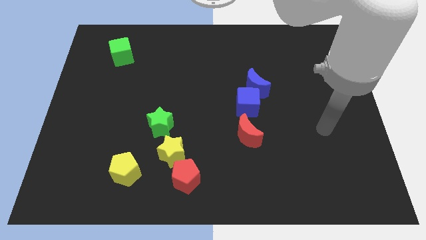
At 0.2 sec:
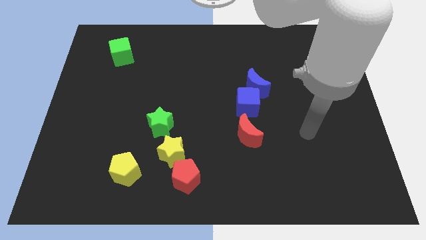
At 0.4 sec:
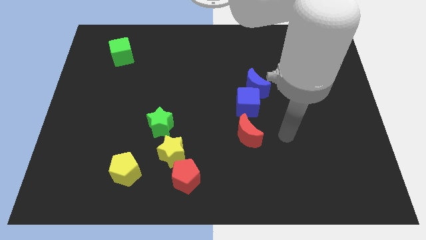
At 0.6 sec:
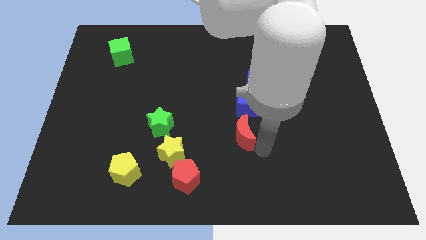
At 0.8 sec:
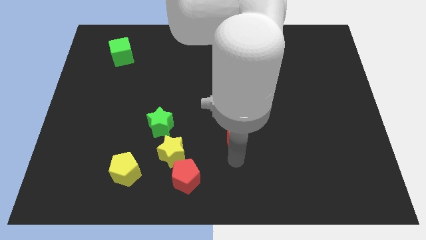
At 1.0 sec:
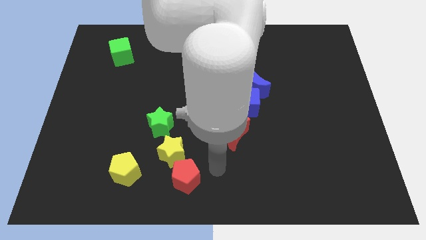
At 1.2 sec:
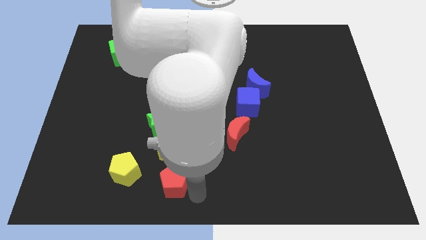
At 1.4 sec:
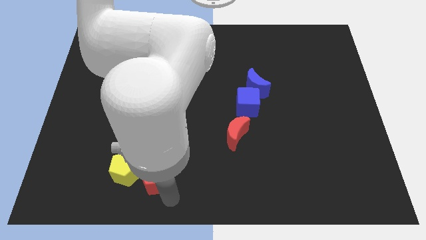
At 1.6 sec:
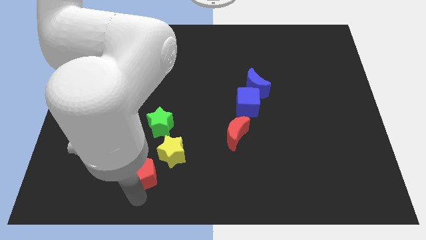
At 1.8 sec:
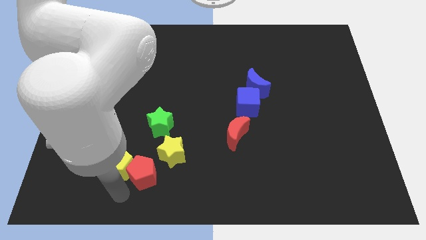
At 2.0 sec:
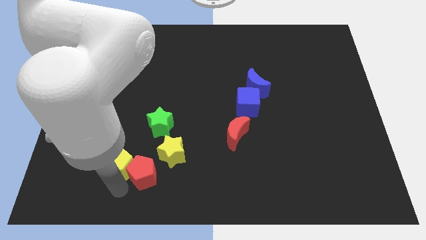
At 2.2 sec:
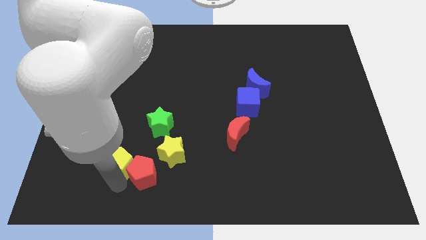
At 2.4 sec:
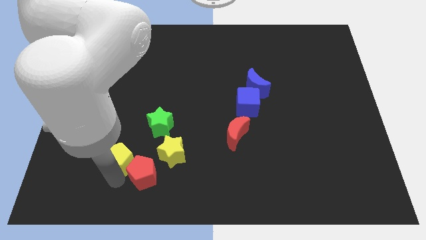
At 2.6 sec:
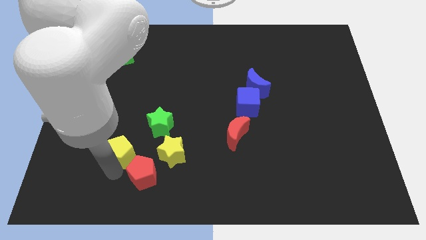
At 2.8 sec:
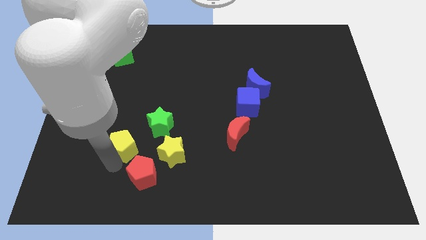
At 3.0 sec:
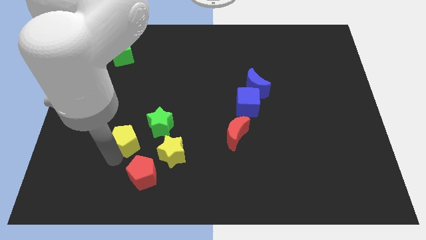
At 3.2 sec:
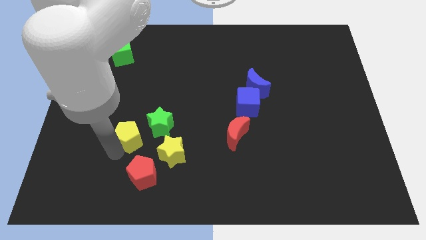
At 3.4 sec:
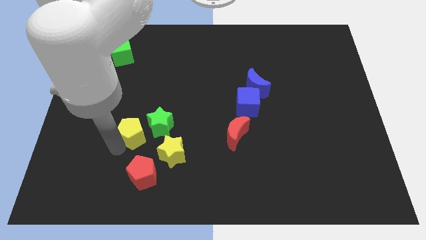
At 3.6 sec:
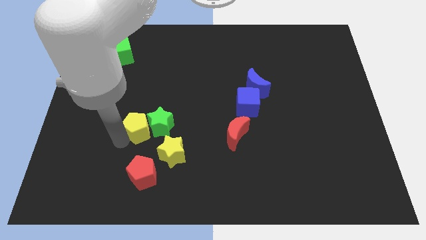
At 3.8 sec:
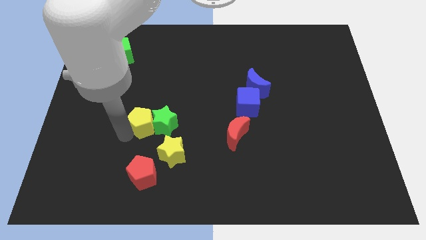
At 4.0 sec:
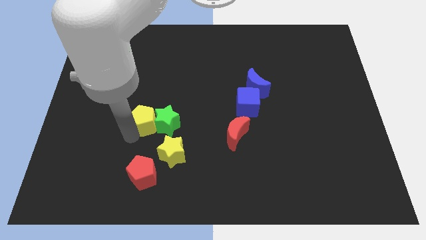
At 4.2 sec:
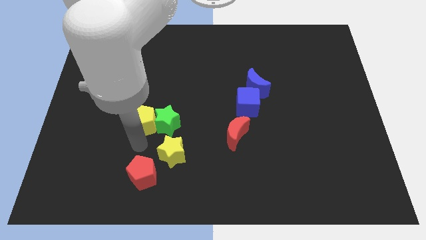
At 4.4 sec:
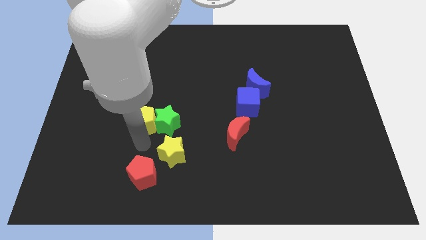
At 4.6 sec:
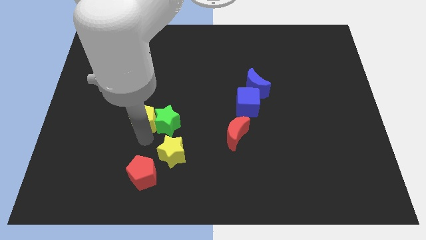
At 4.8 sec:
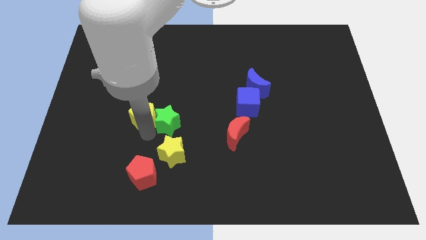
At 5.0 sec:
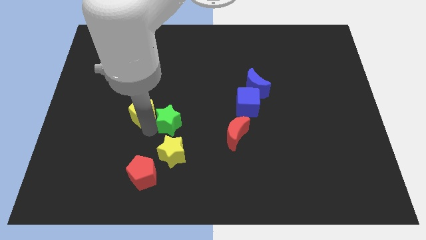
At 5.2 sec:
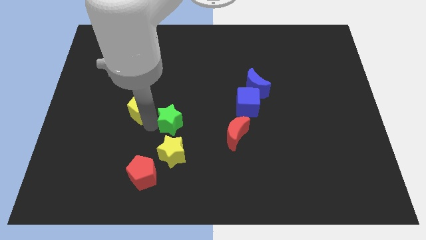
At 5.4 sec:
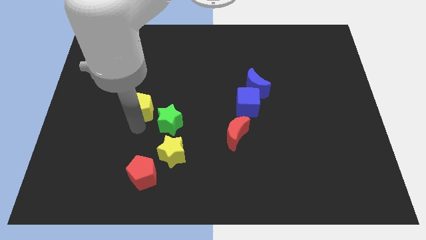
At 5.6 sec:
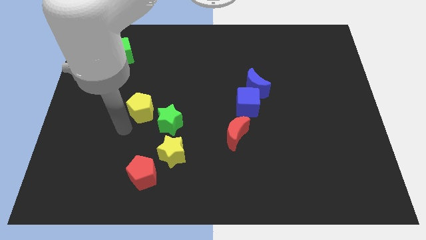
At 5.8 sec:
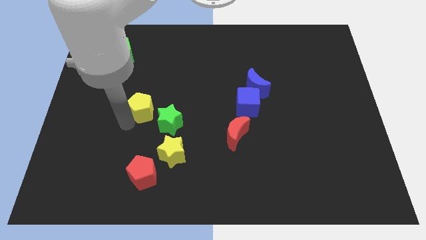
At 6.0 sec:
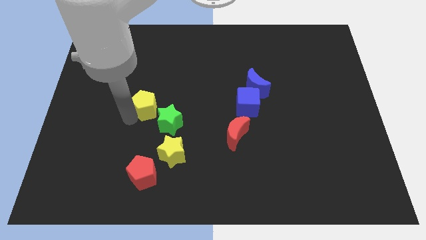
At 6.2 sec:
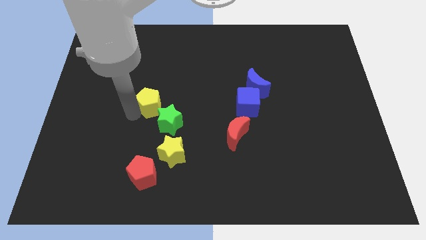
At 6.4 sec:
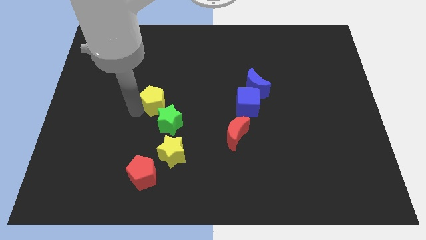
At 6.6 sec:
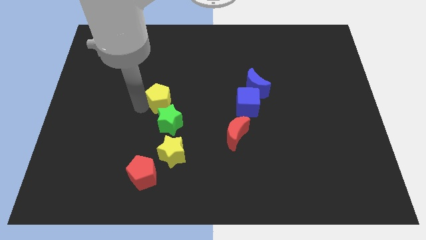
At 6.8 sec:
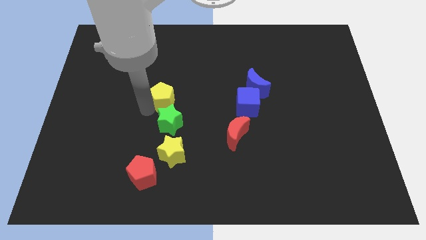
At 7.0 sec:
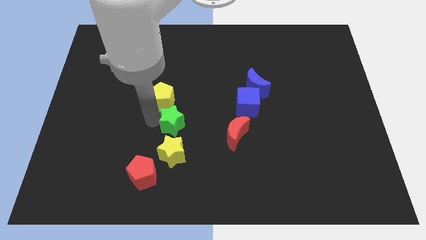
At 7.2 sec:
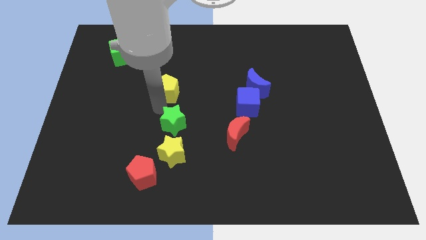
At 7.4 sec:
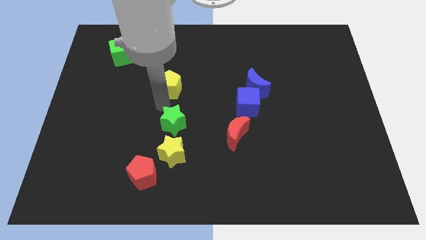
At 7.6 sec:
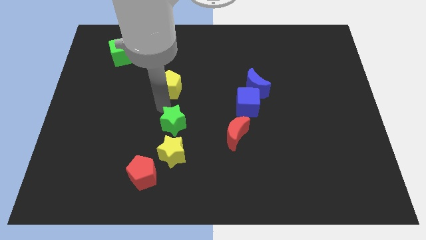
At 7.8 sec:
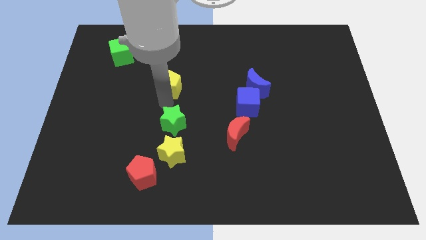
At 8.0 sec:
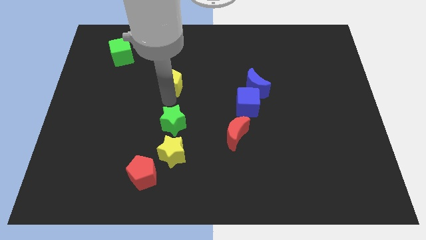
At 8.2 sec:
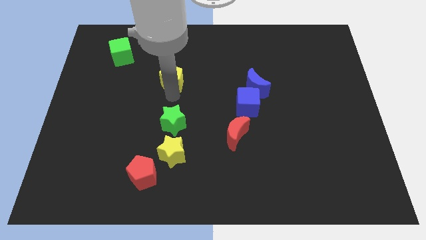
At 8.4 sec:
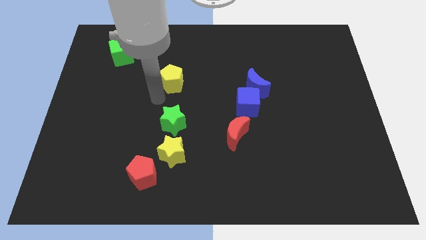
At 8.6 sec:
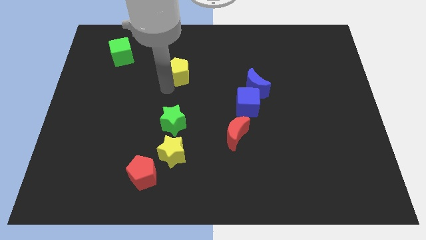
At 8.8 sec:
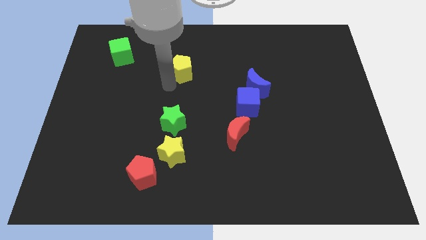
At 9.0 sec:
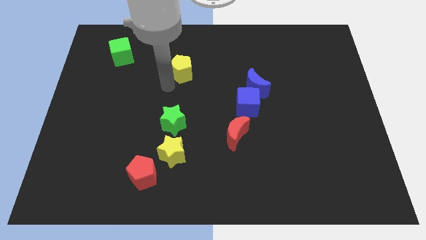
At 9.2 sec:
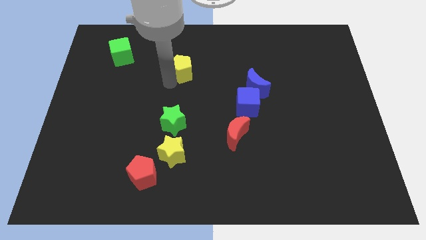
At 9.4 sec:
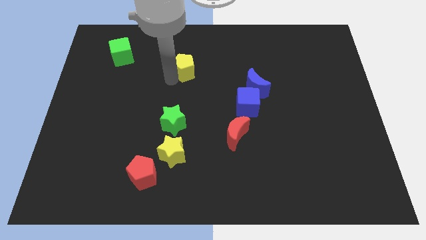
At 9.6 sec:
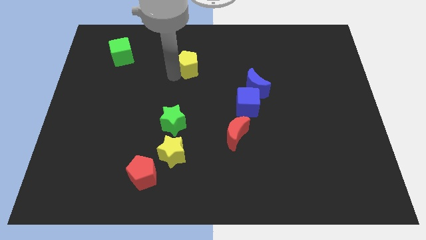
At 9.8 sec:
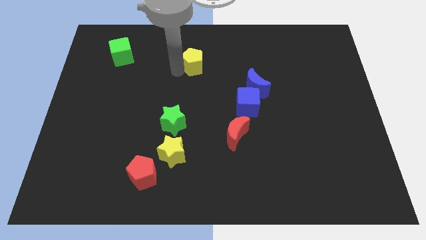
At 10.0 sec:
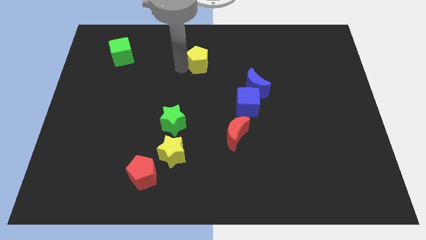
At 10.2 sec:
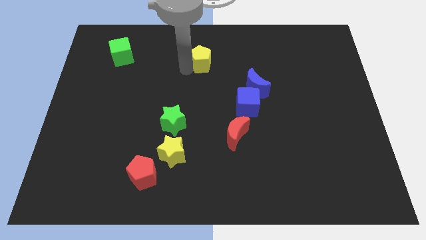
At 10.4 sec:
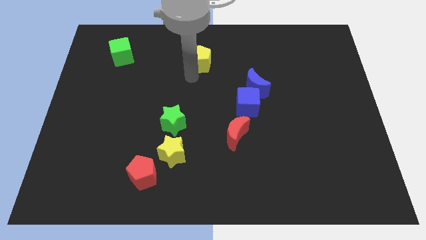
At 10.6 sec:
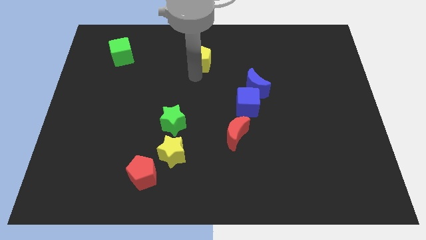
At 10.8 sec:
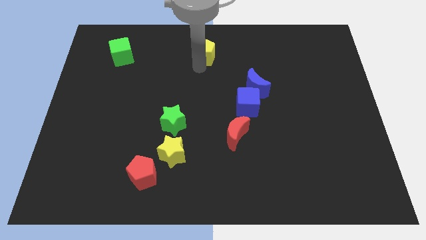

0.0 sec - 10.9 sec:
push the yellow pentagon to the top side
